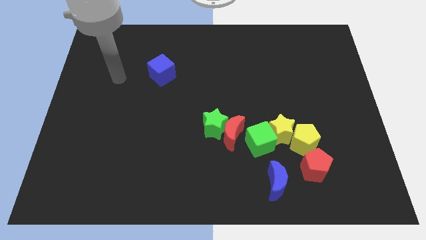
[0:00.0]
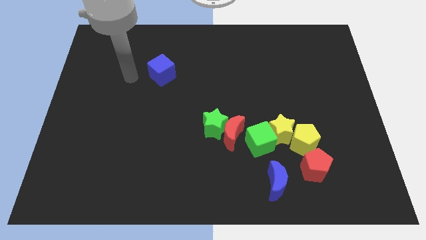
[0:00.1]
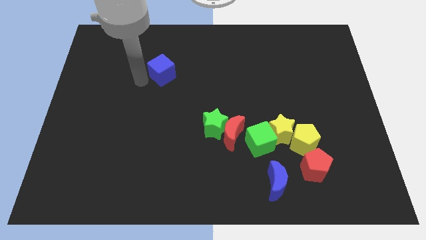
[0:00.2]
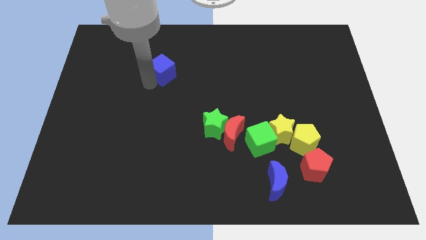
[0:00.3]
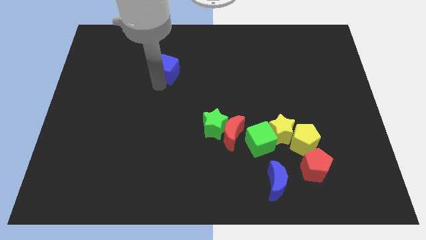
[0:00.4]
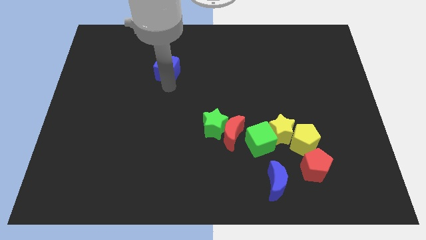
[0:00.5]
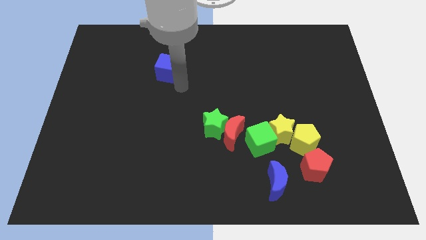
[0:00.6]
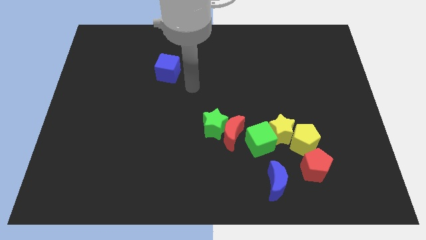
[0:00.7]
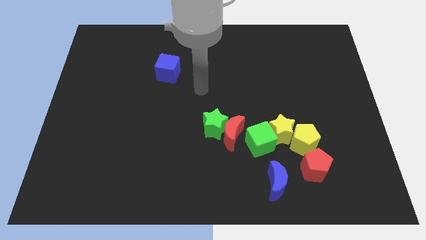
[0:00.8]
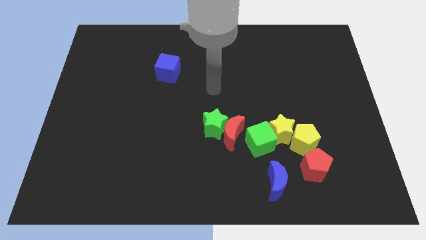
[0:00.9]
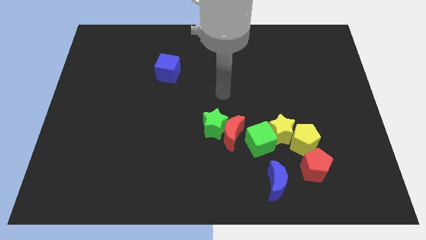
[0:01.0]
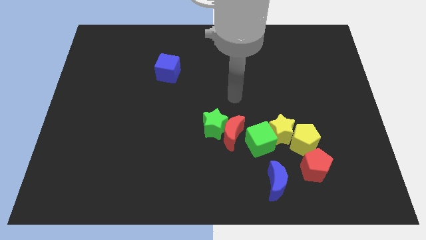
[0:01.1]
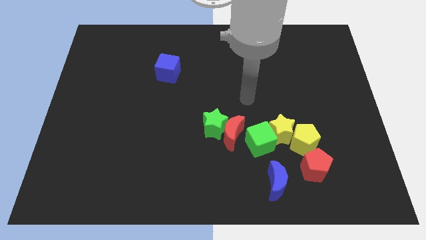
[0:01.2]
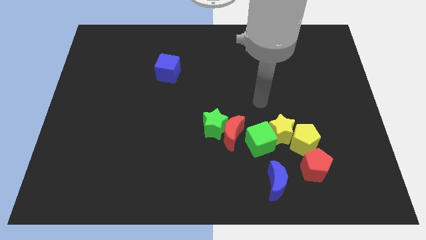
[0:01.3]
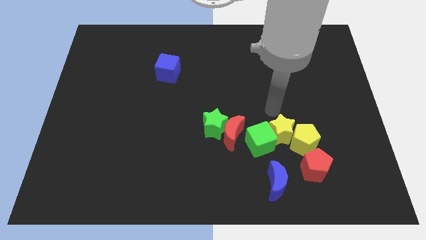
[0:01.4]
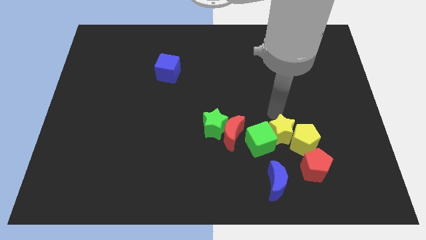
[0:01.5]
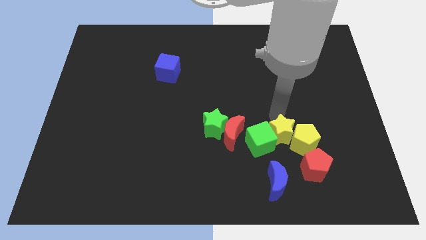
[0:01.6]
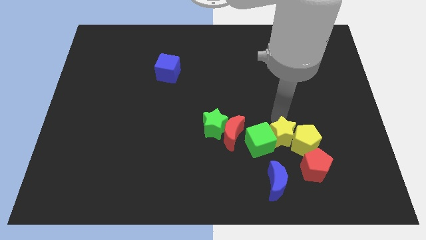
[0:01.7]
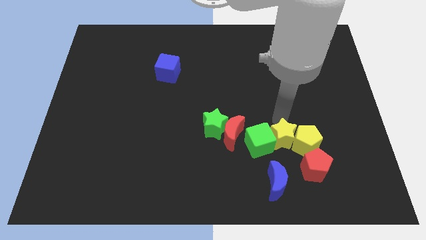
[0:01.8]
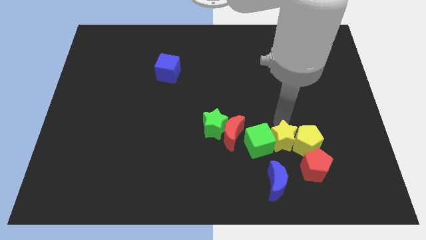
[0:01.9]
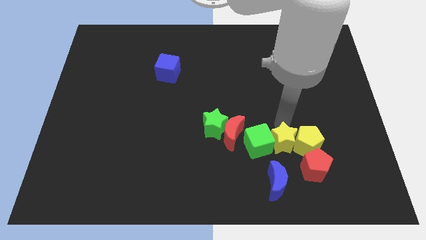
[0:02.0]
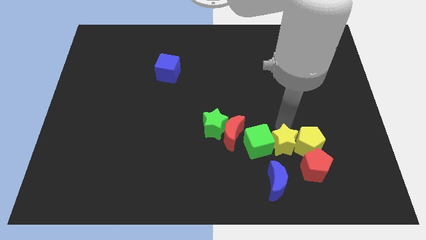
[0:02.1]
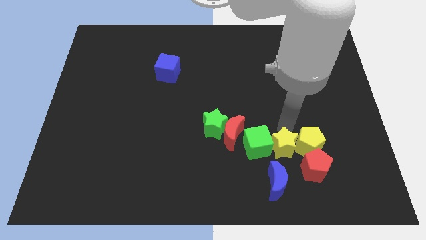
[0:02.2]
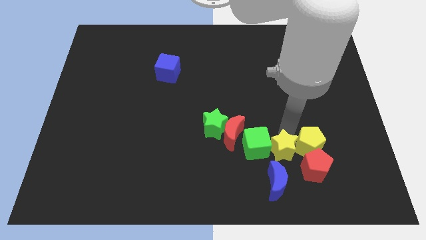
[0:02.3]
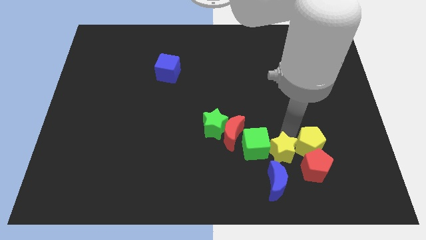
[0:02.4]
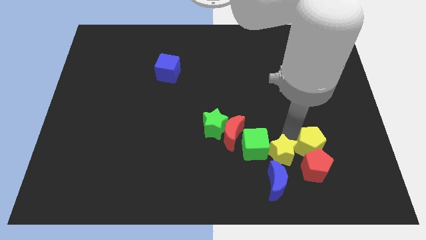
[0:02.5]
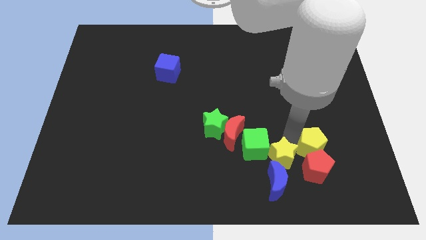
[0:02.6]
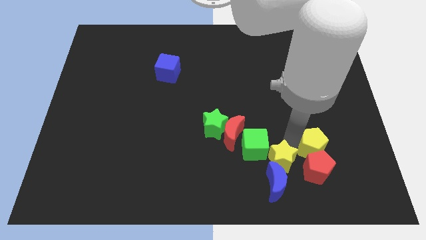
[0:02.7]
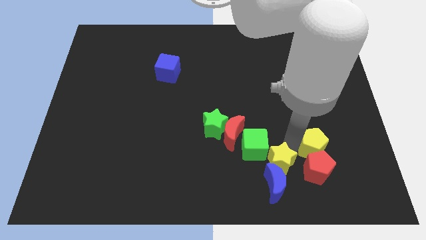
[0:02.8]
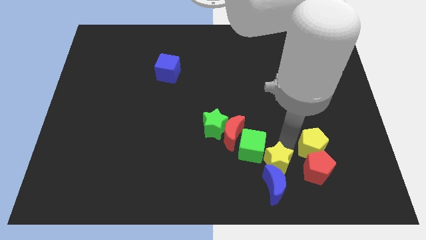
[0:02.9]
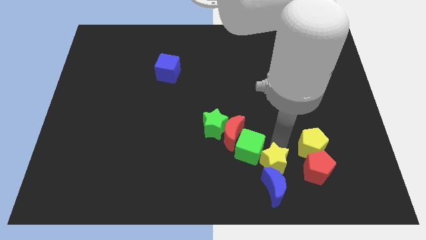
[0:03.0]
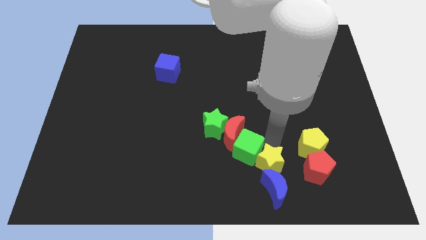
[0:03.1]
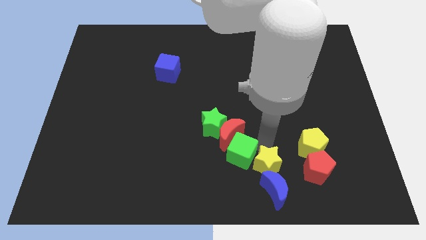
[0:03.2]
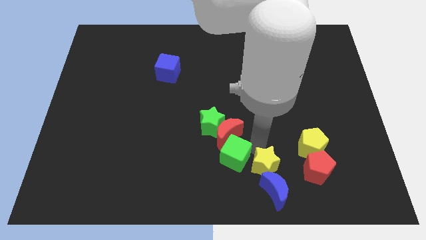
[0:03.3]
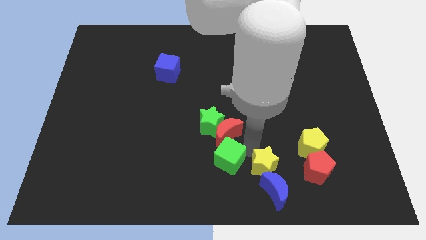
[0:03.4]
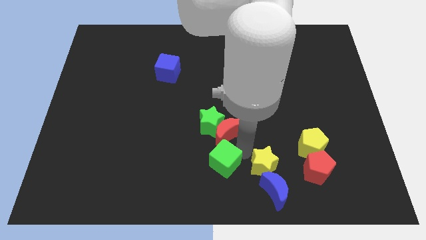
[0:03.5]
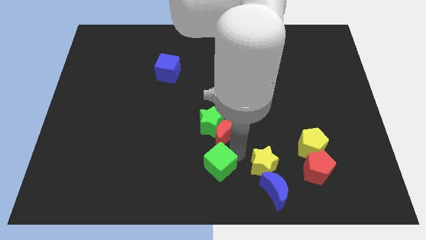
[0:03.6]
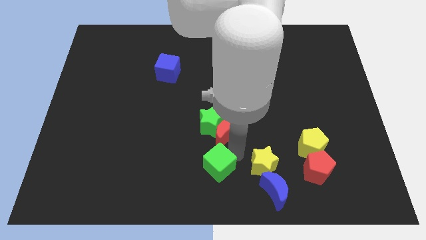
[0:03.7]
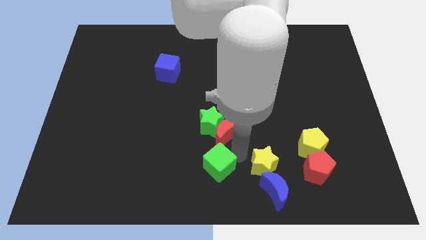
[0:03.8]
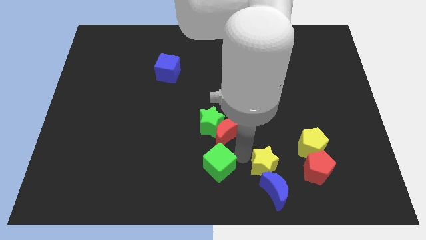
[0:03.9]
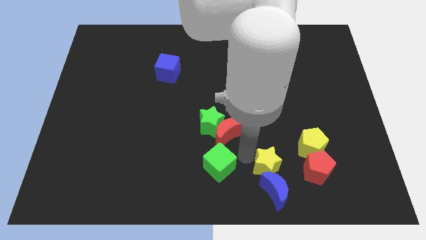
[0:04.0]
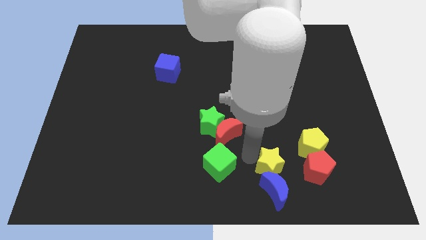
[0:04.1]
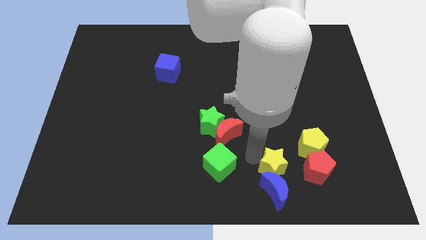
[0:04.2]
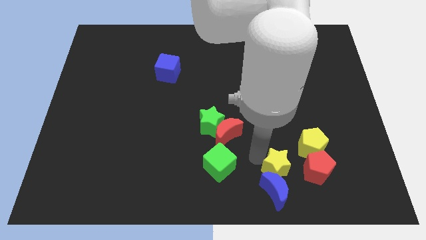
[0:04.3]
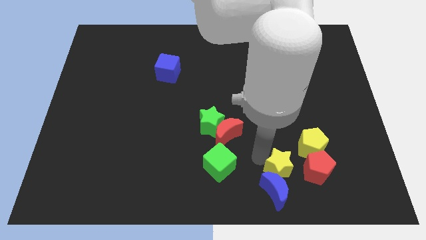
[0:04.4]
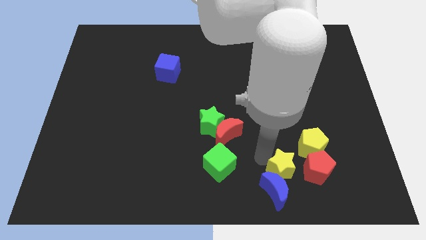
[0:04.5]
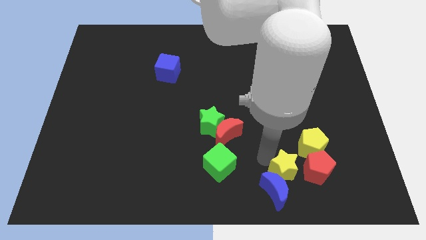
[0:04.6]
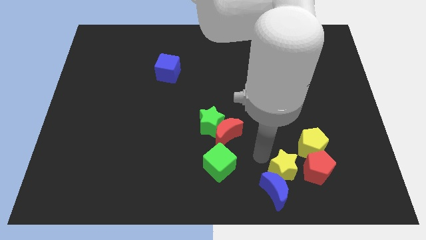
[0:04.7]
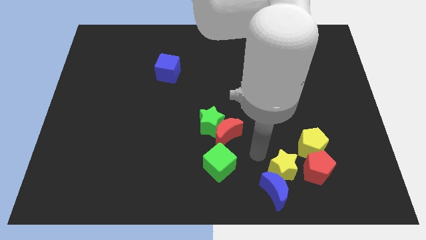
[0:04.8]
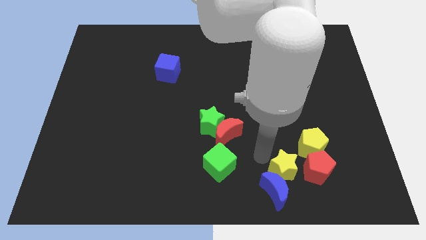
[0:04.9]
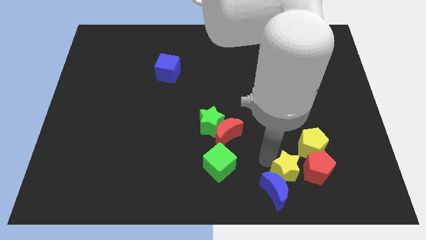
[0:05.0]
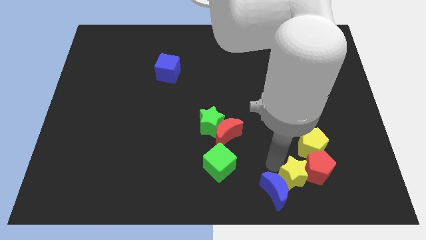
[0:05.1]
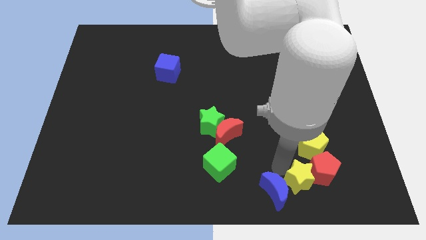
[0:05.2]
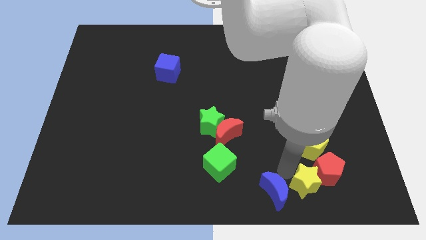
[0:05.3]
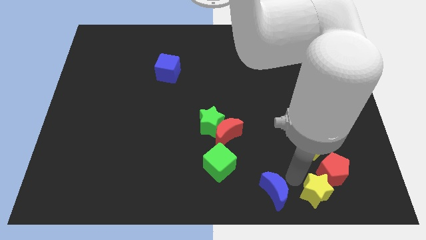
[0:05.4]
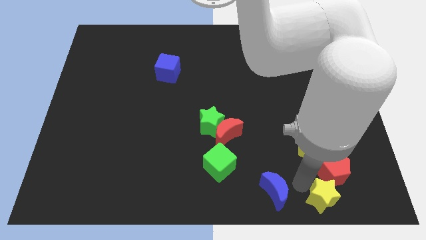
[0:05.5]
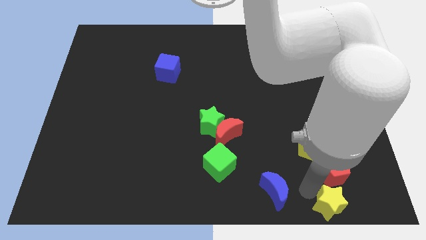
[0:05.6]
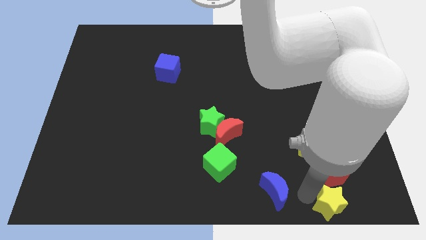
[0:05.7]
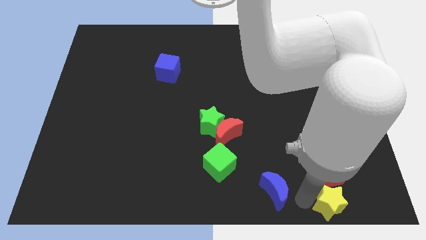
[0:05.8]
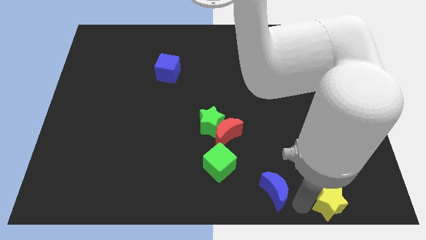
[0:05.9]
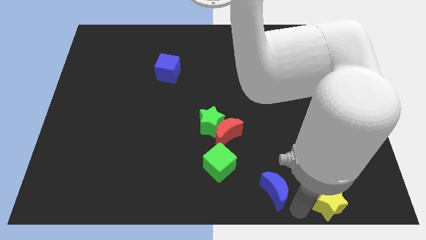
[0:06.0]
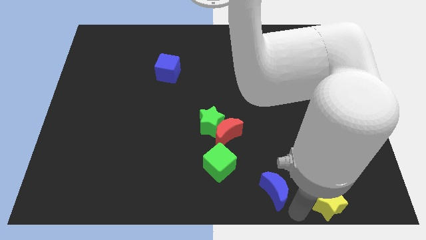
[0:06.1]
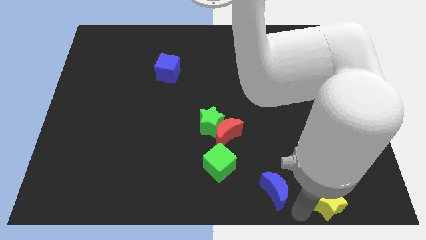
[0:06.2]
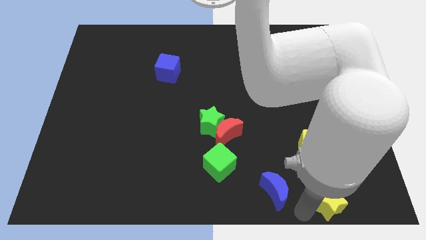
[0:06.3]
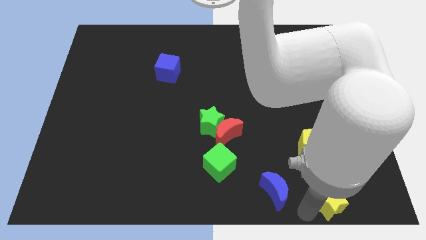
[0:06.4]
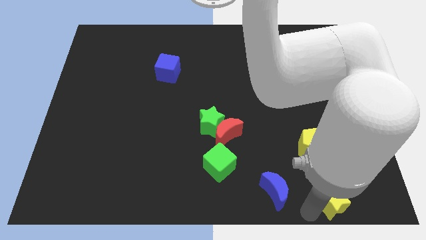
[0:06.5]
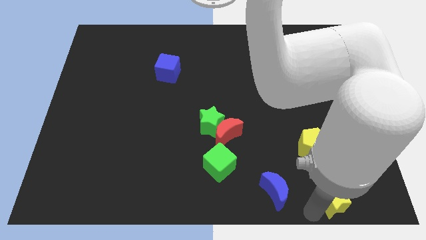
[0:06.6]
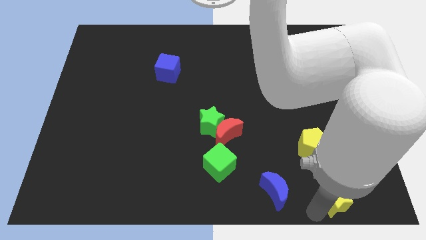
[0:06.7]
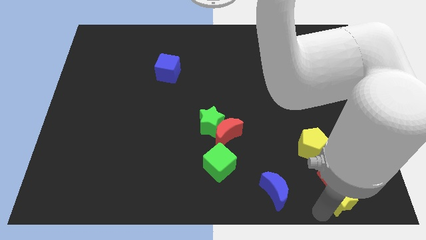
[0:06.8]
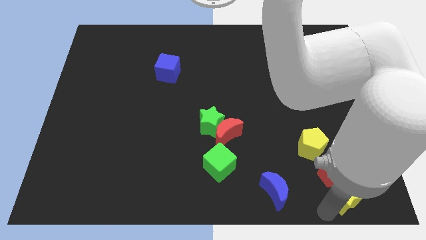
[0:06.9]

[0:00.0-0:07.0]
push the yellow star to the bottom right of the board
